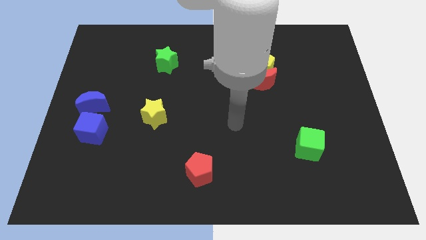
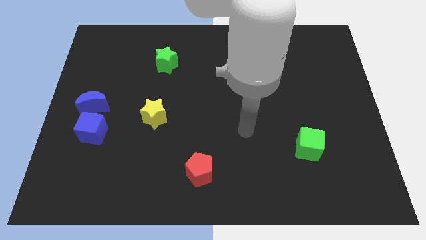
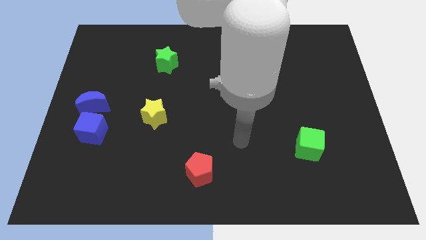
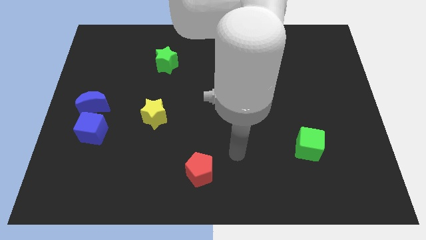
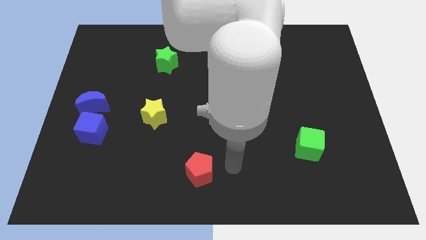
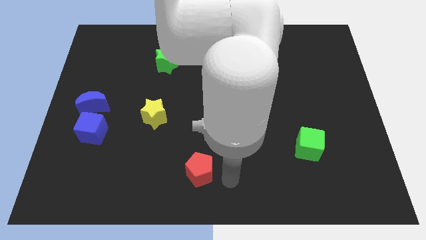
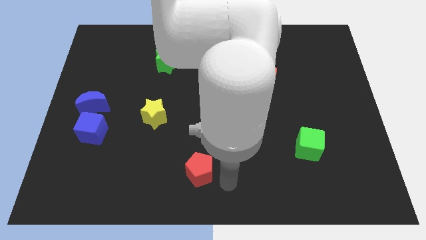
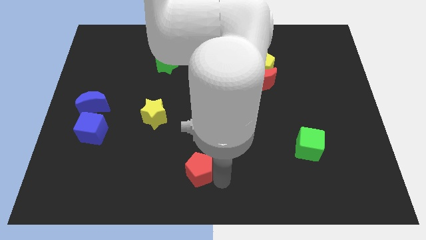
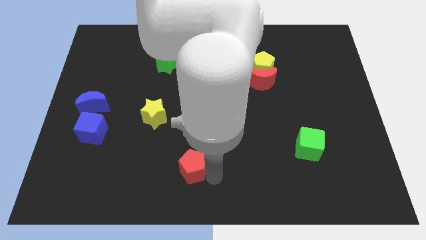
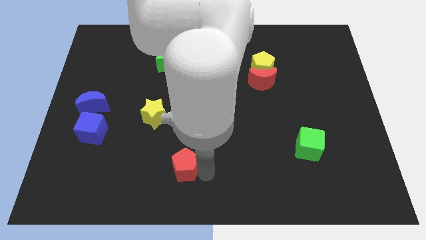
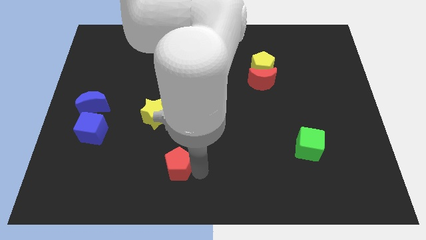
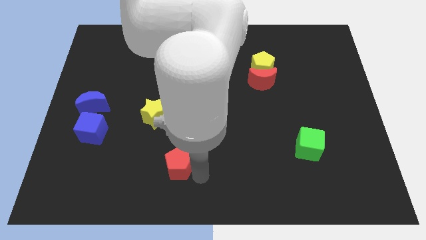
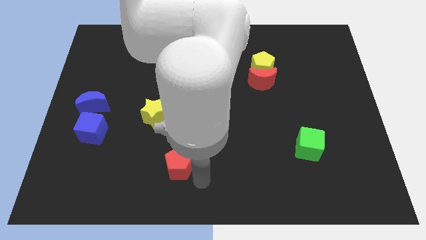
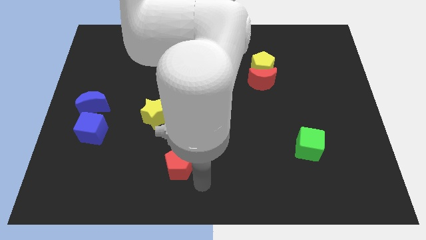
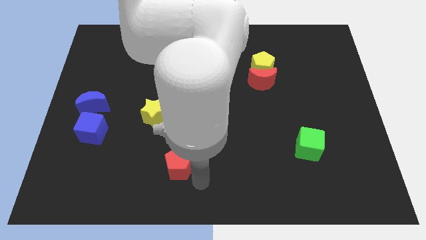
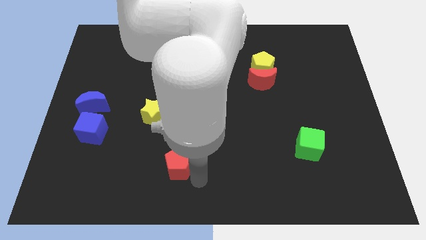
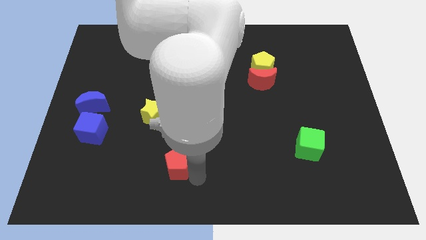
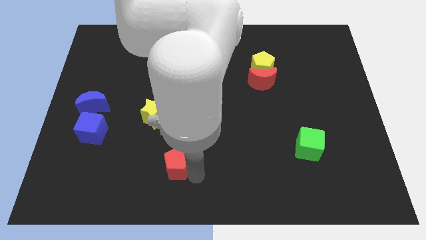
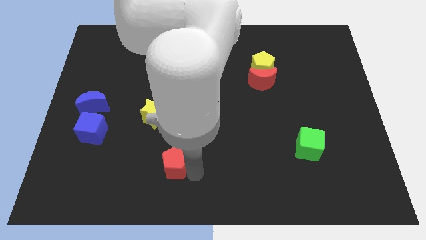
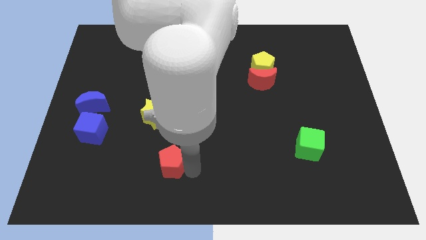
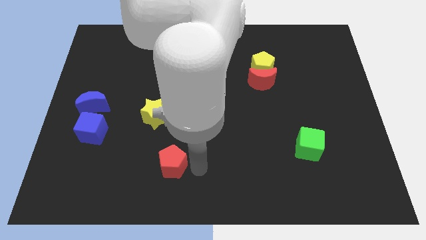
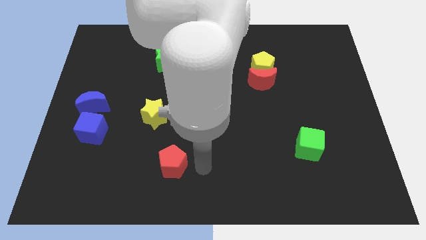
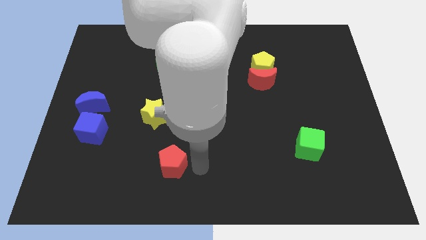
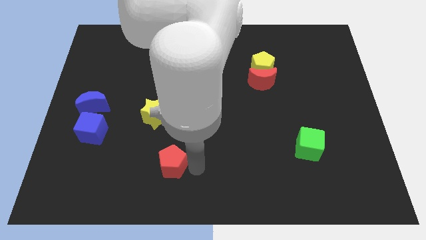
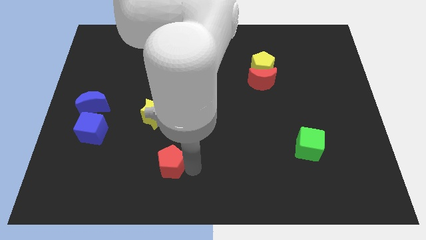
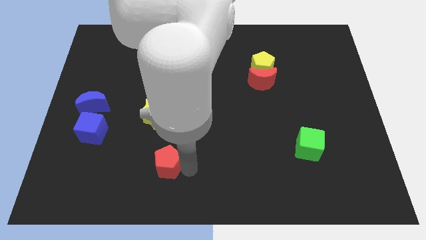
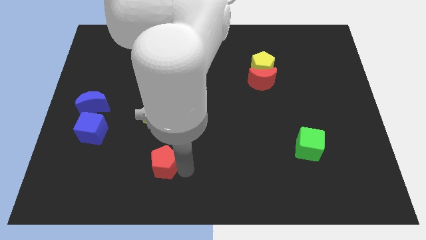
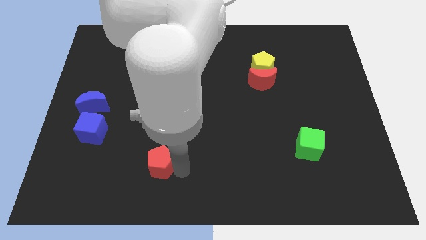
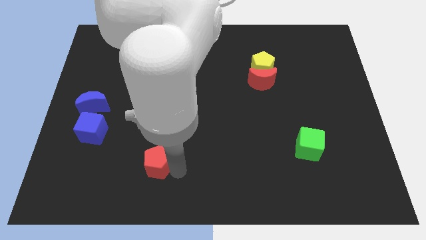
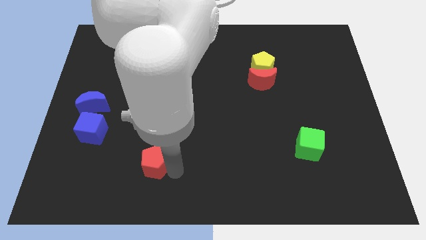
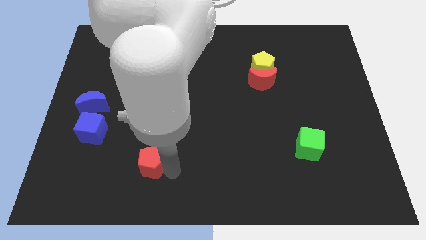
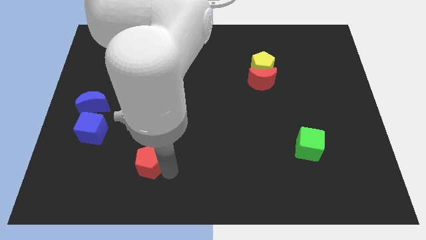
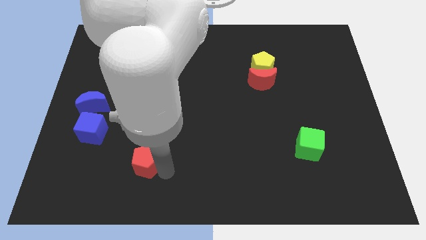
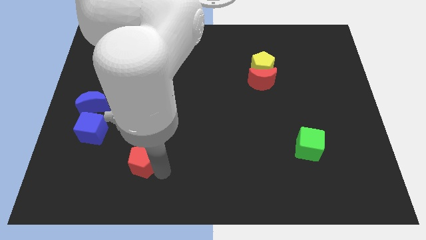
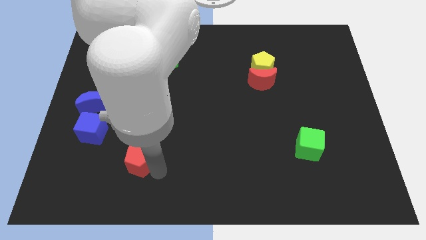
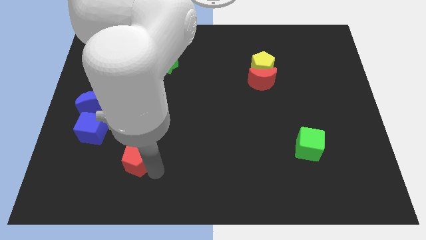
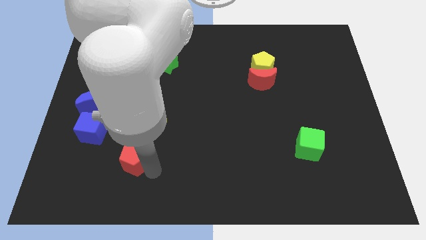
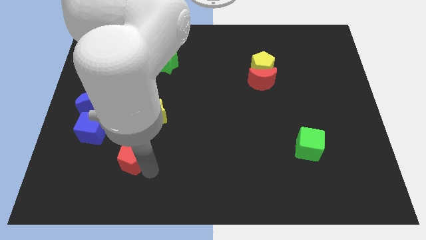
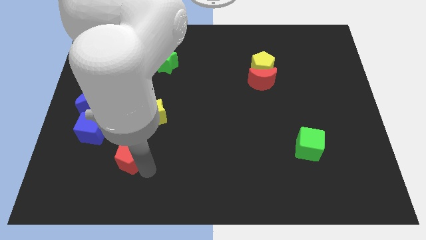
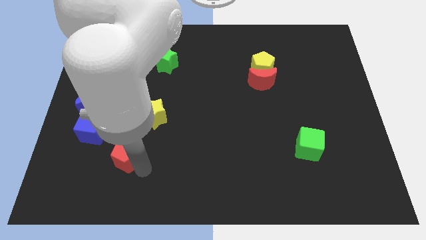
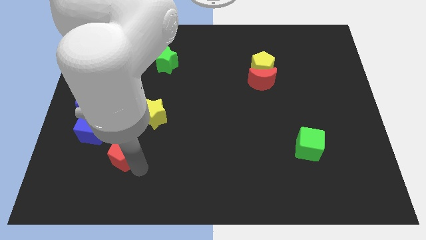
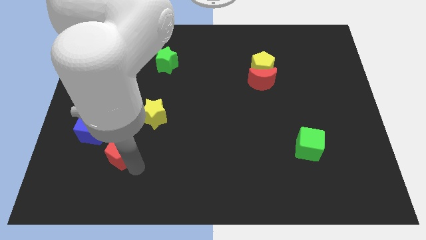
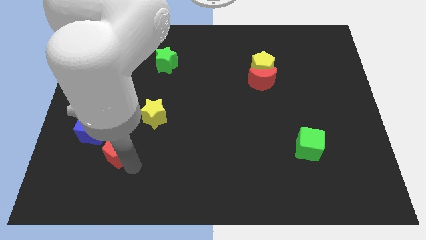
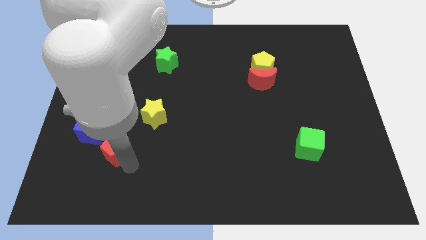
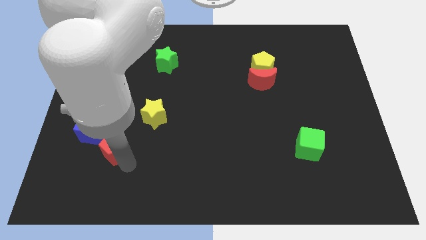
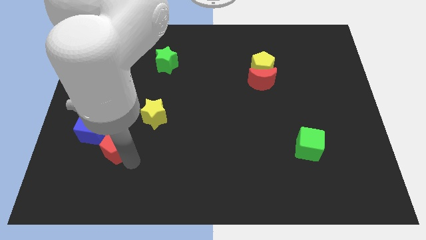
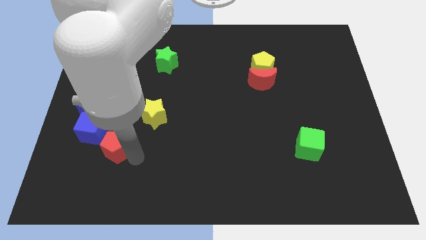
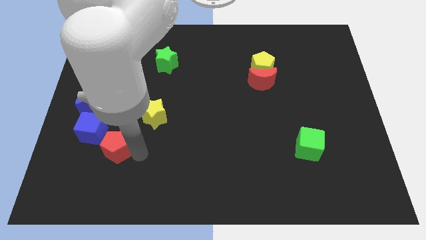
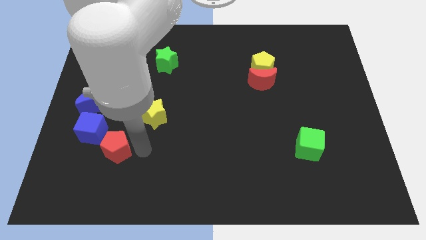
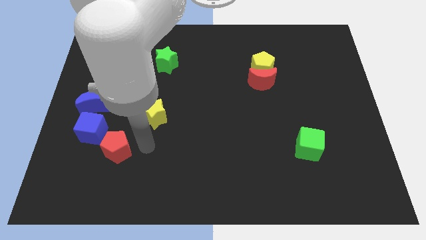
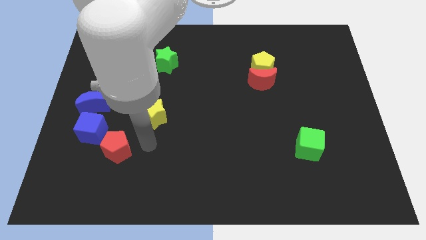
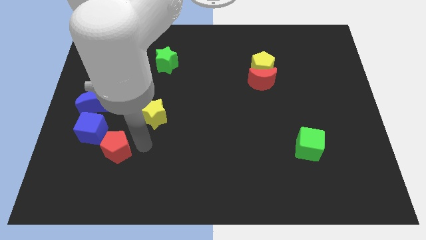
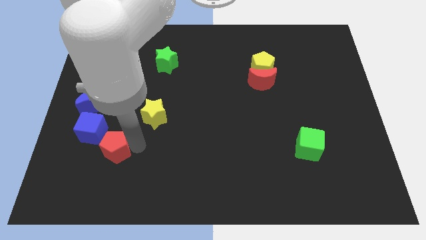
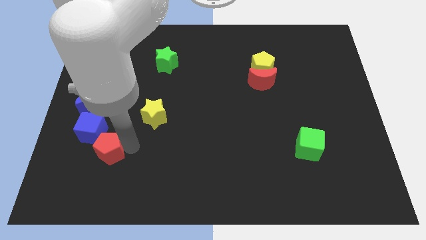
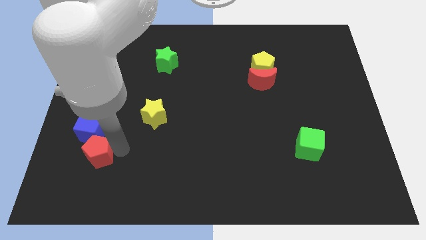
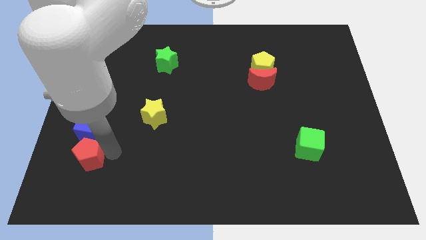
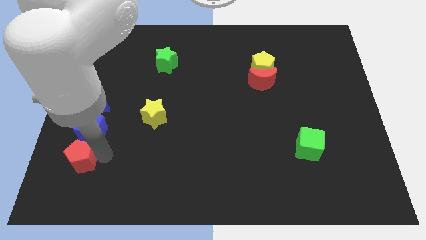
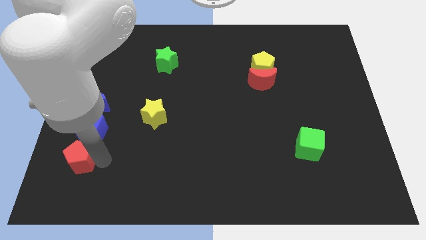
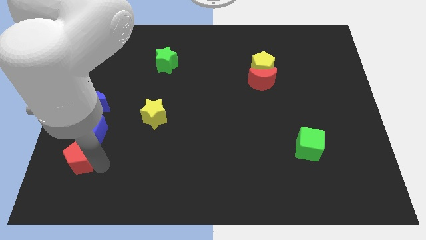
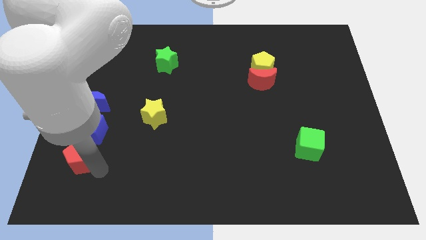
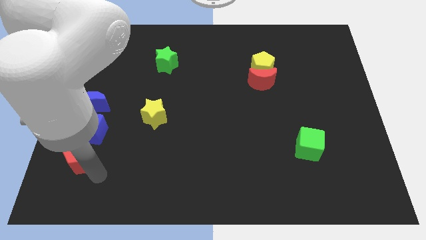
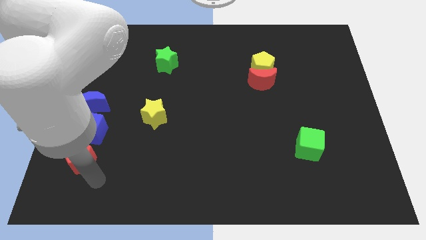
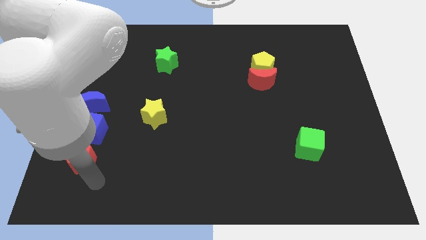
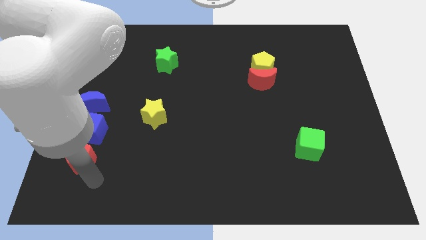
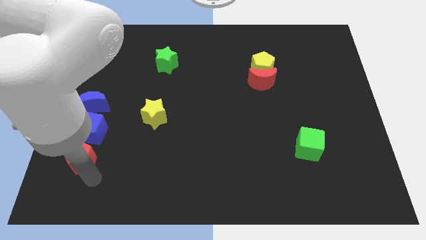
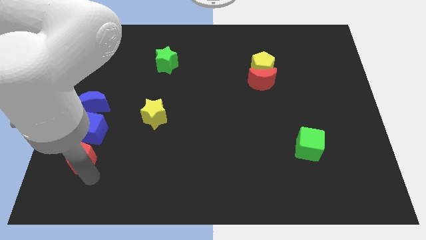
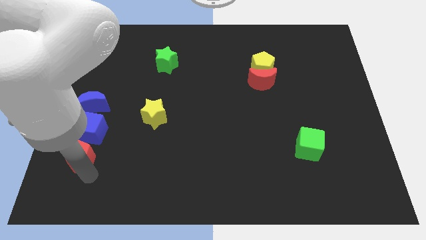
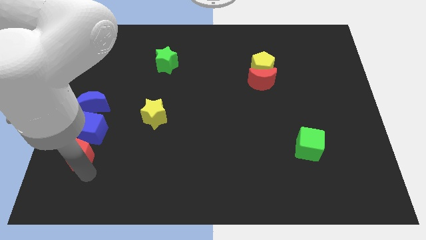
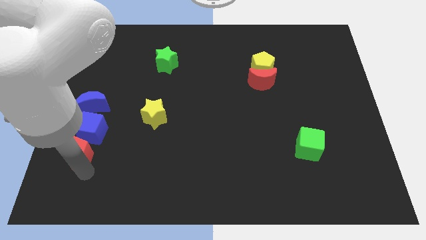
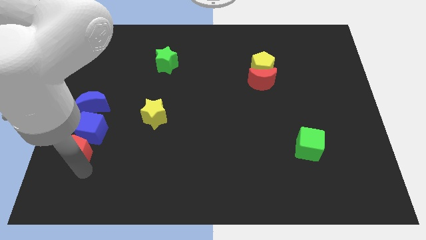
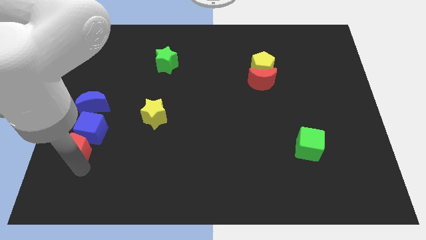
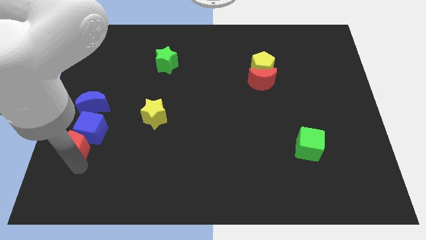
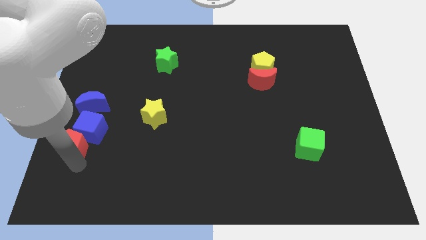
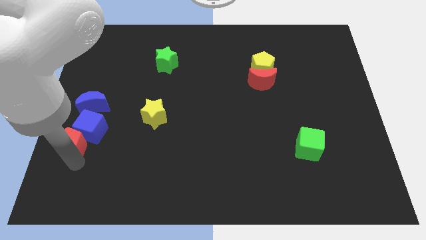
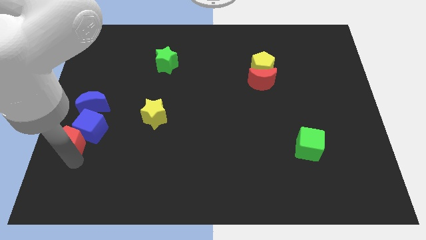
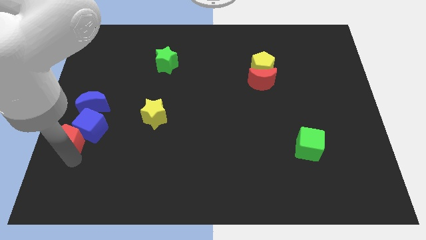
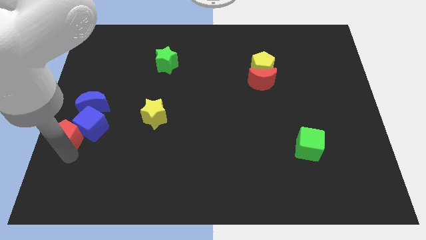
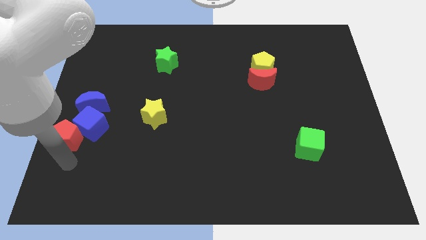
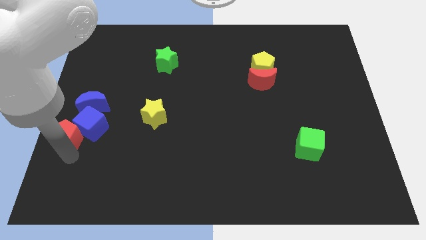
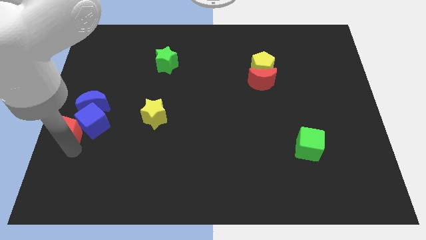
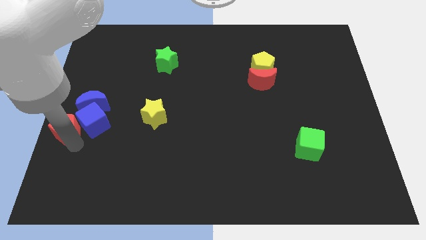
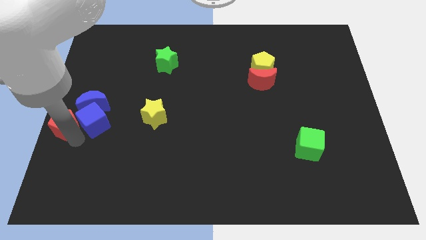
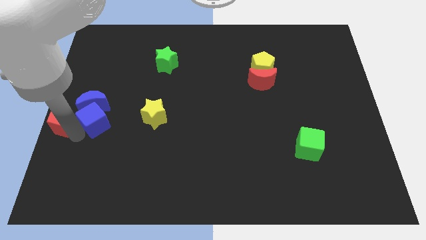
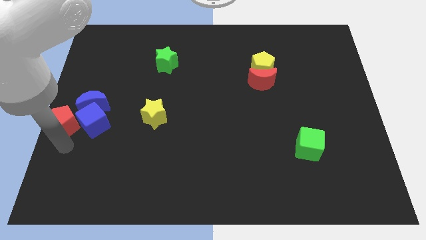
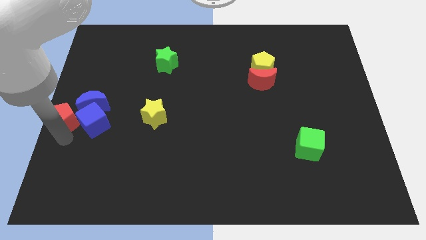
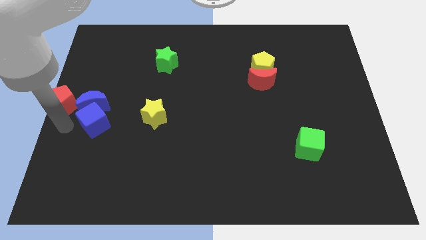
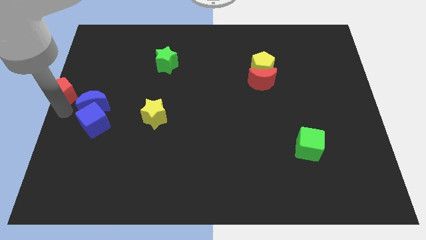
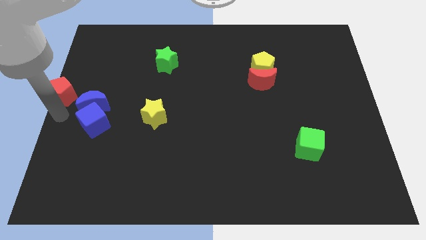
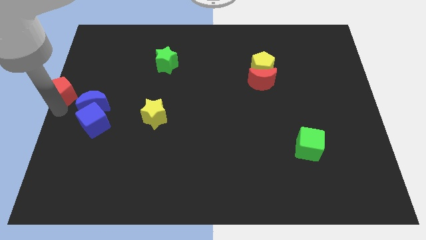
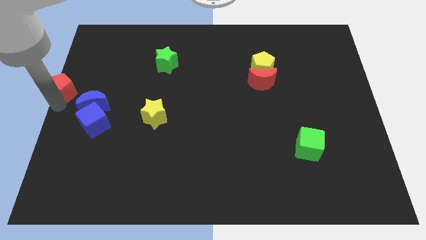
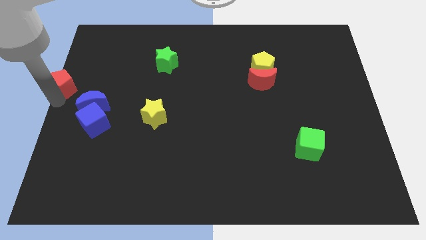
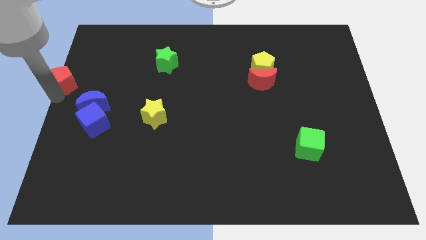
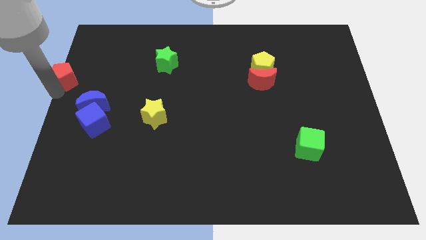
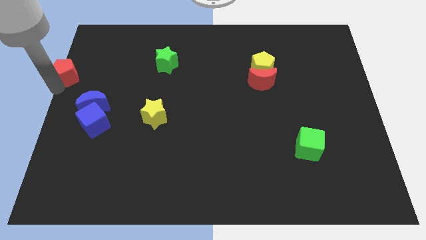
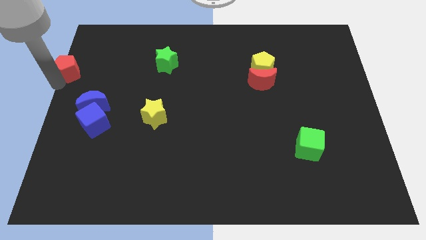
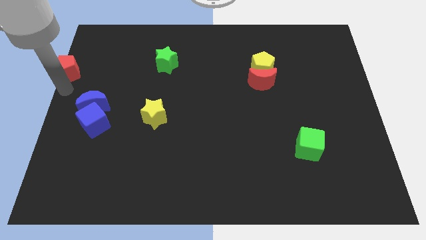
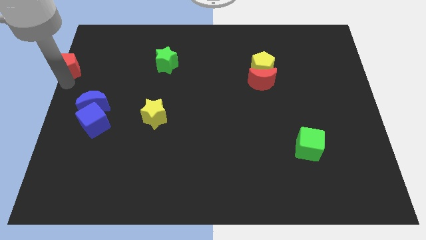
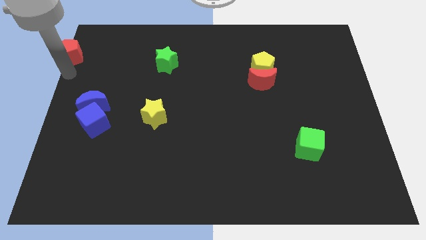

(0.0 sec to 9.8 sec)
push the red pentagon to the top left corner
